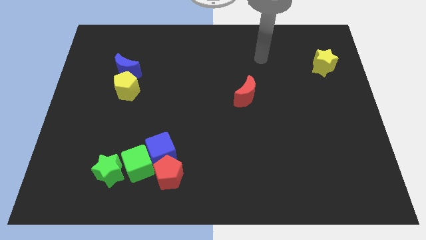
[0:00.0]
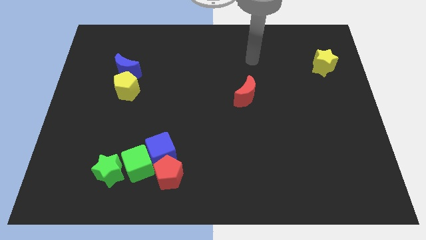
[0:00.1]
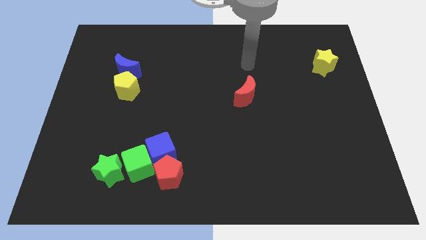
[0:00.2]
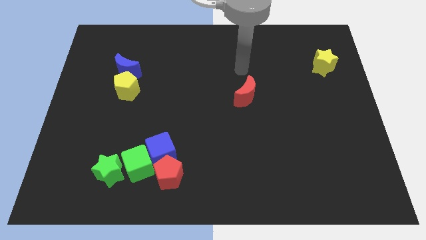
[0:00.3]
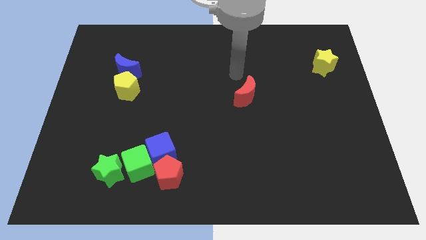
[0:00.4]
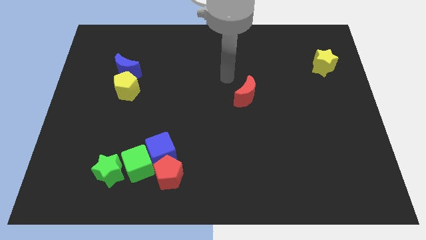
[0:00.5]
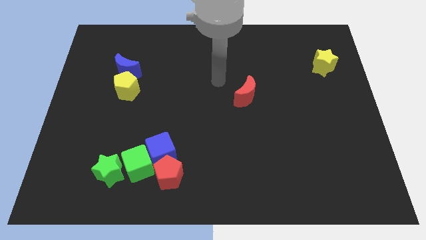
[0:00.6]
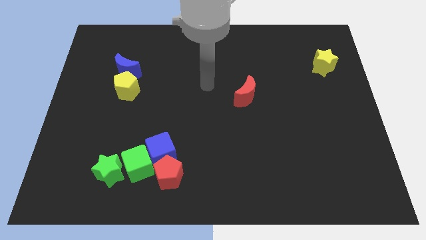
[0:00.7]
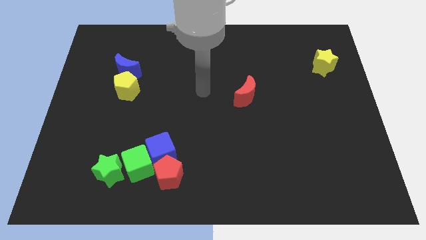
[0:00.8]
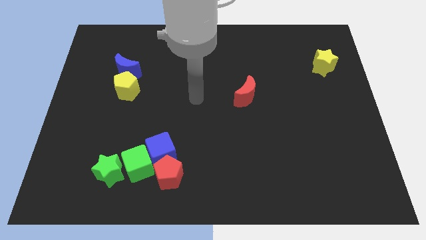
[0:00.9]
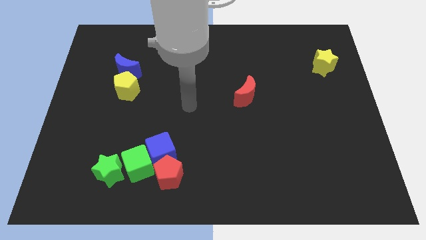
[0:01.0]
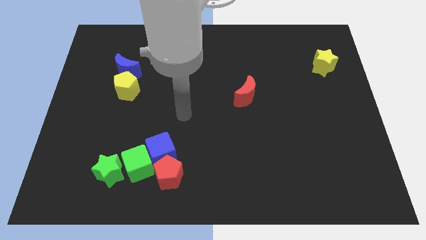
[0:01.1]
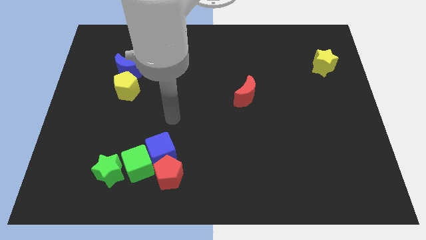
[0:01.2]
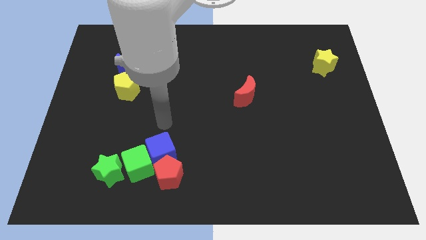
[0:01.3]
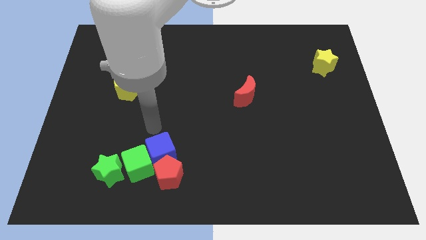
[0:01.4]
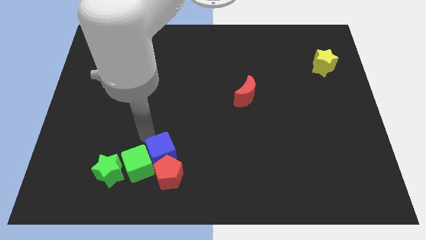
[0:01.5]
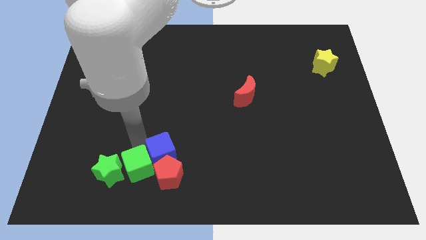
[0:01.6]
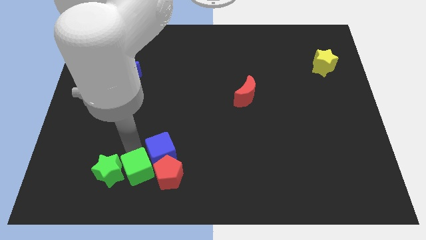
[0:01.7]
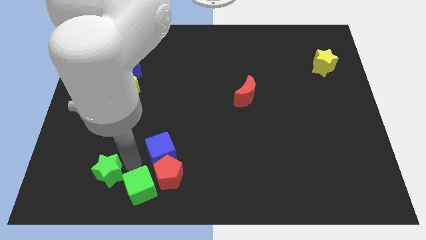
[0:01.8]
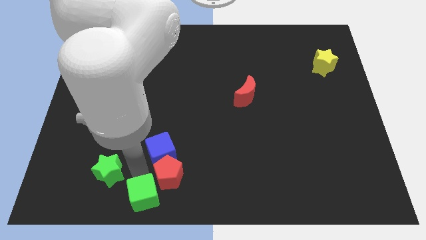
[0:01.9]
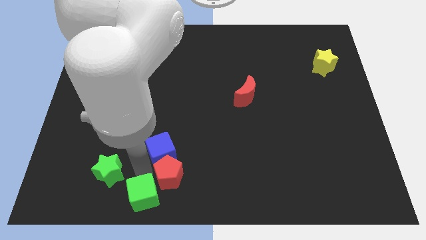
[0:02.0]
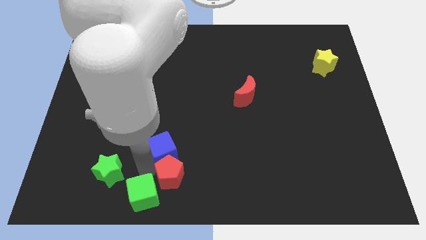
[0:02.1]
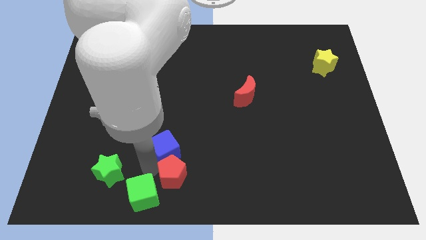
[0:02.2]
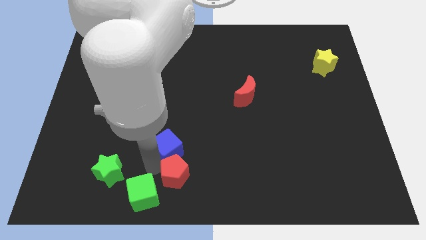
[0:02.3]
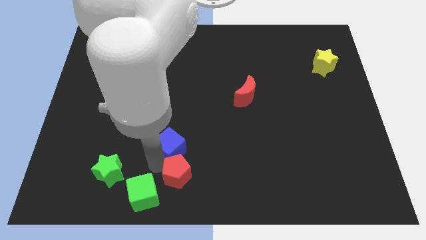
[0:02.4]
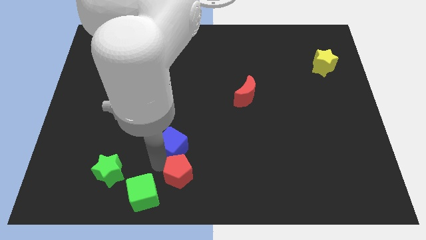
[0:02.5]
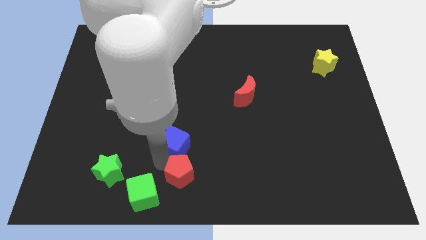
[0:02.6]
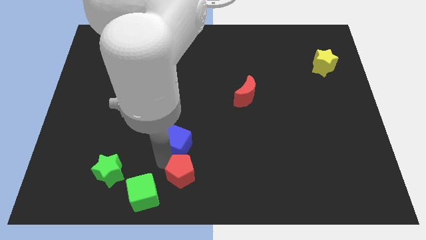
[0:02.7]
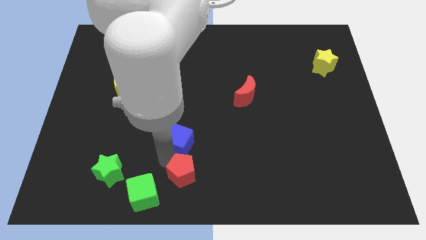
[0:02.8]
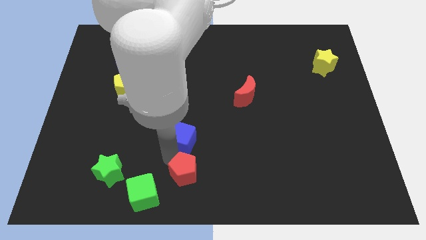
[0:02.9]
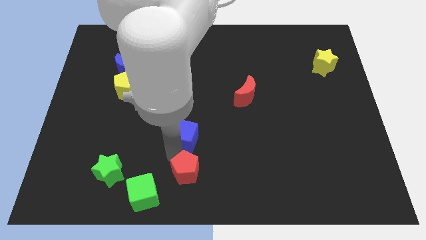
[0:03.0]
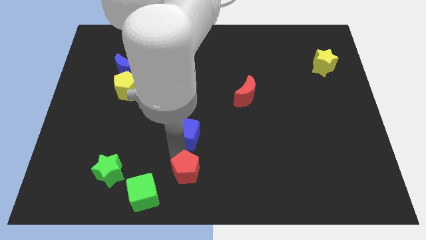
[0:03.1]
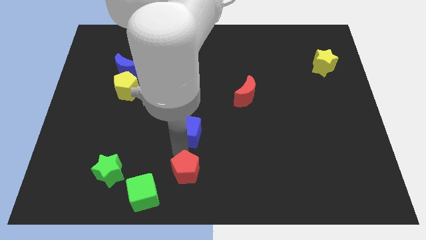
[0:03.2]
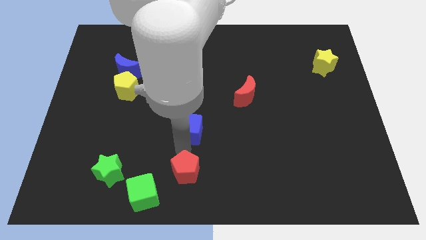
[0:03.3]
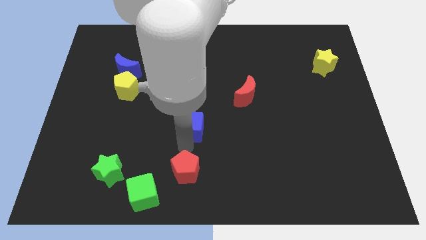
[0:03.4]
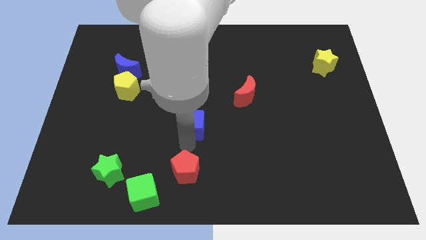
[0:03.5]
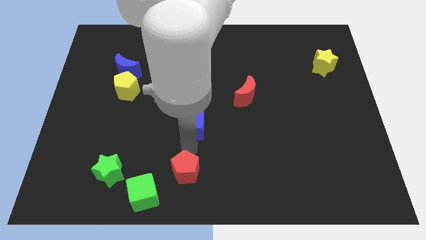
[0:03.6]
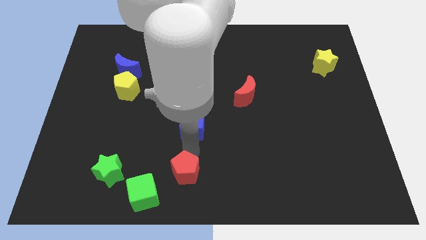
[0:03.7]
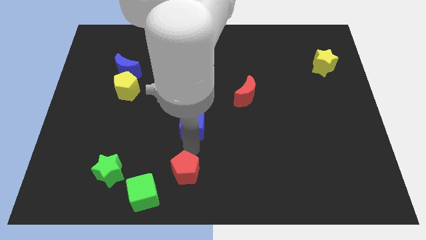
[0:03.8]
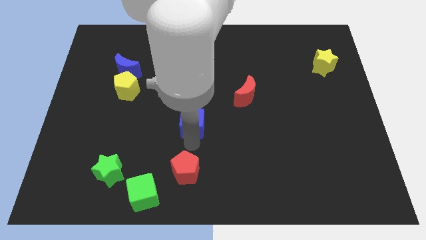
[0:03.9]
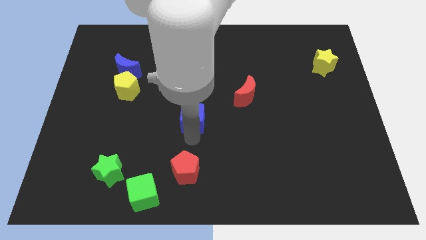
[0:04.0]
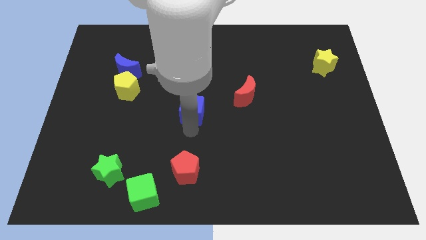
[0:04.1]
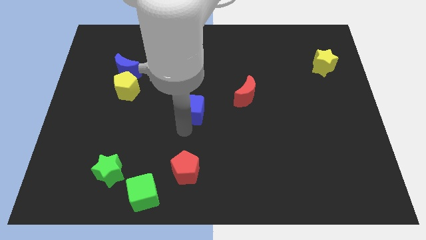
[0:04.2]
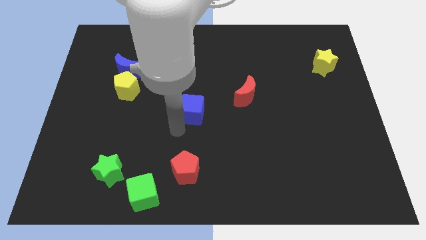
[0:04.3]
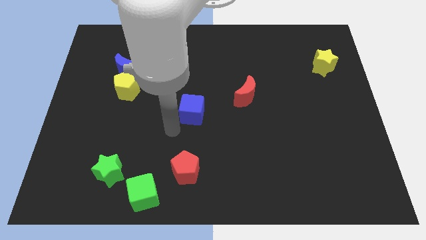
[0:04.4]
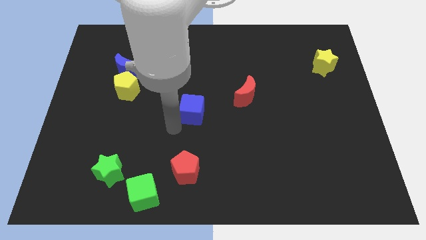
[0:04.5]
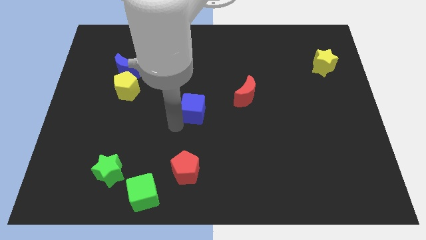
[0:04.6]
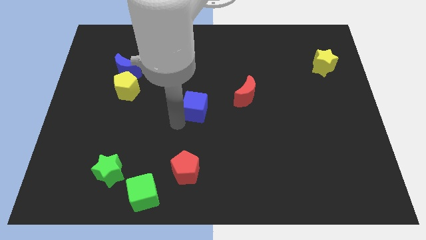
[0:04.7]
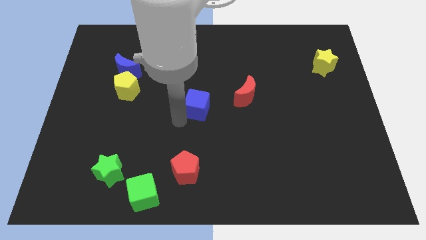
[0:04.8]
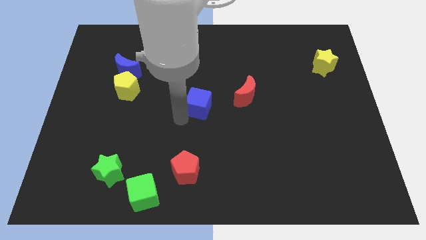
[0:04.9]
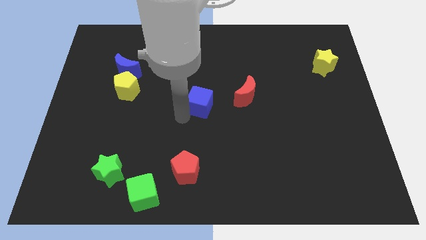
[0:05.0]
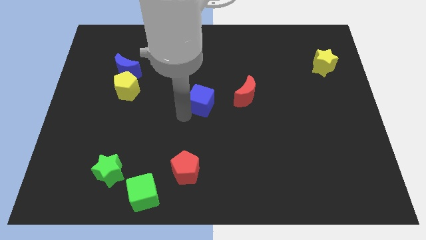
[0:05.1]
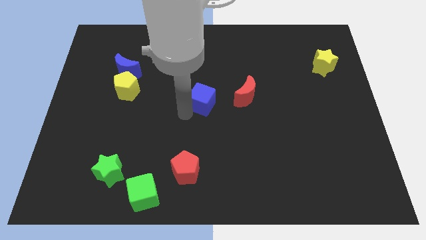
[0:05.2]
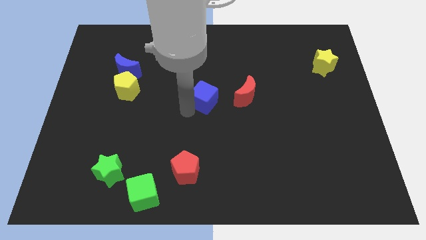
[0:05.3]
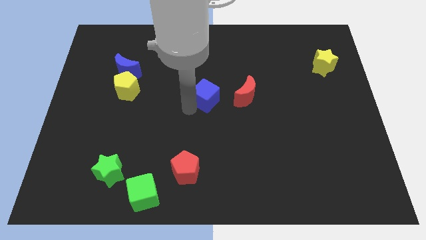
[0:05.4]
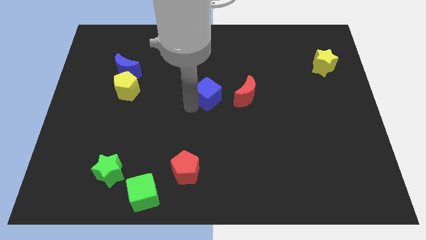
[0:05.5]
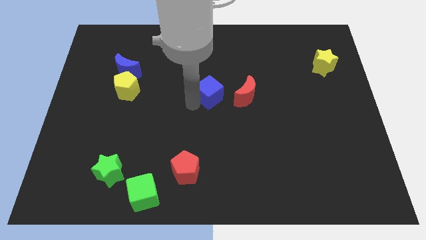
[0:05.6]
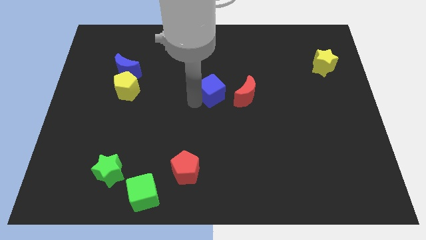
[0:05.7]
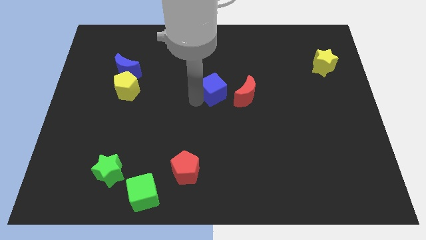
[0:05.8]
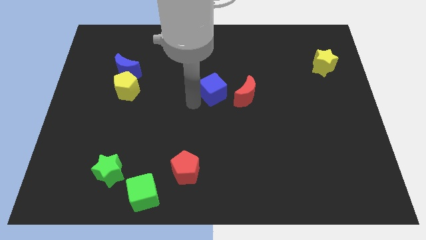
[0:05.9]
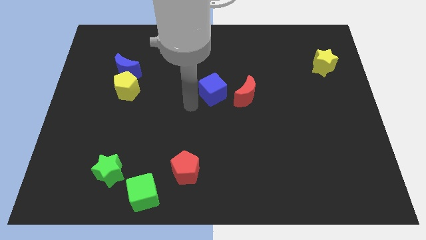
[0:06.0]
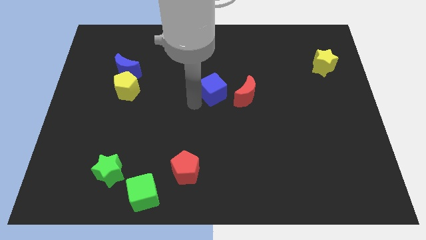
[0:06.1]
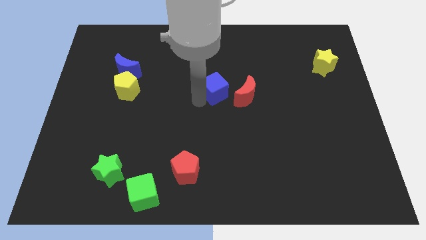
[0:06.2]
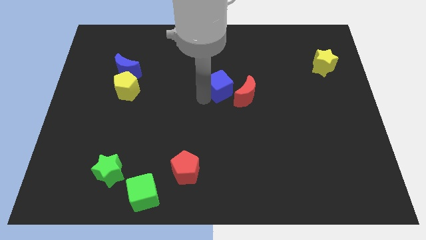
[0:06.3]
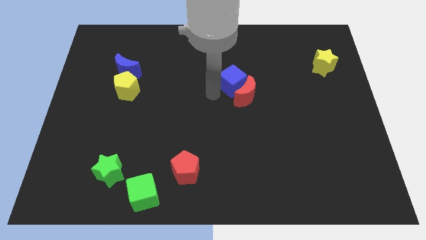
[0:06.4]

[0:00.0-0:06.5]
move the blue cube to the top side of the red moon

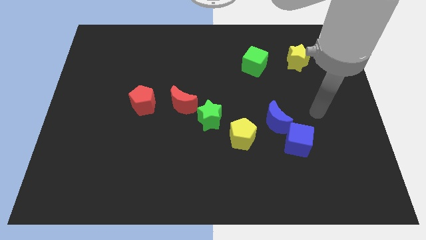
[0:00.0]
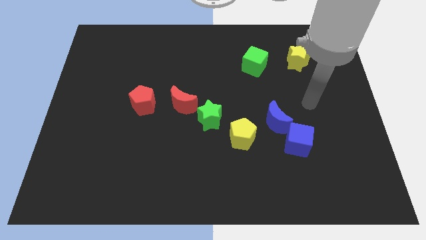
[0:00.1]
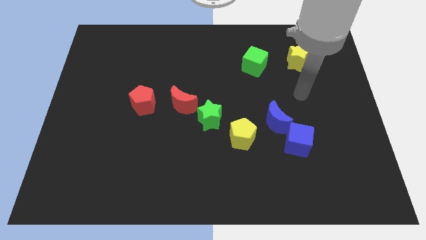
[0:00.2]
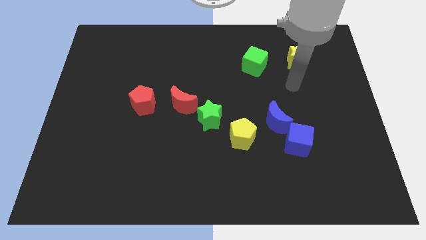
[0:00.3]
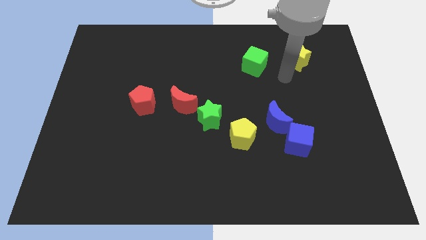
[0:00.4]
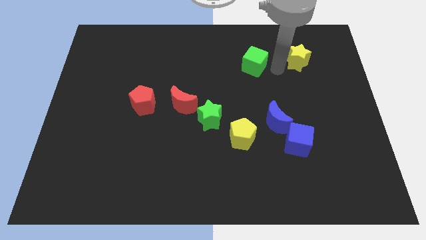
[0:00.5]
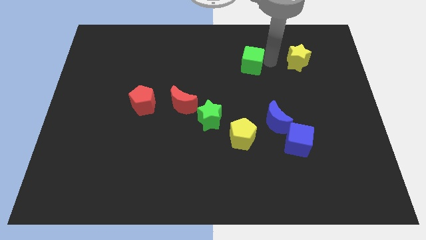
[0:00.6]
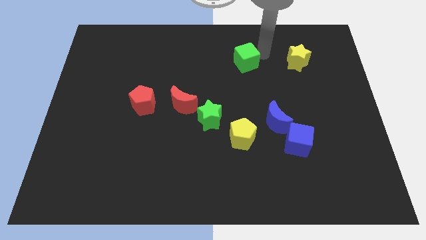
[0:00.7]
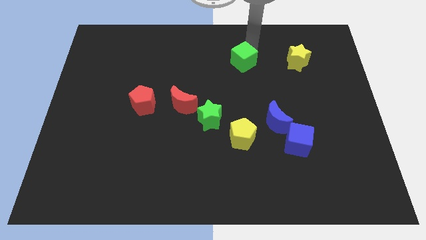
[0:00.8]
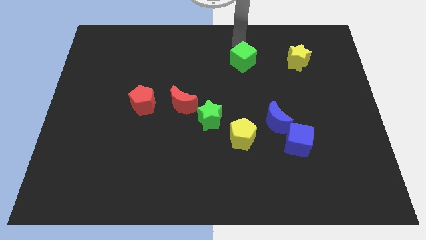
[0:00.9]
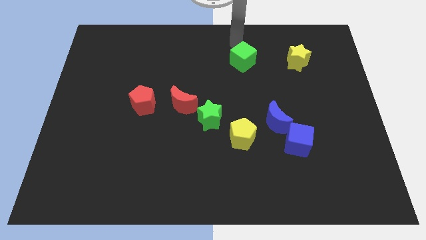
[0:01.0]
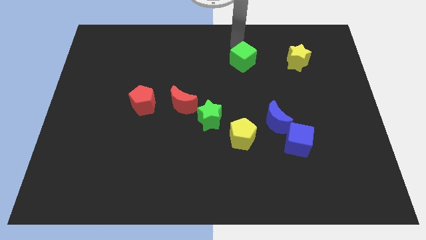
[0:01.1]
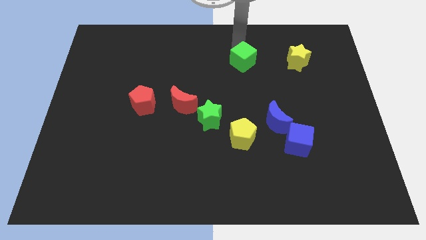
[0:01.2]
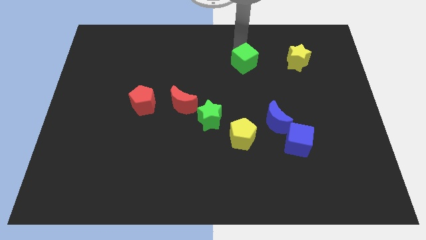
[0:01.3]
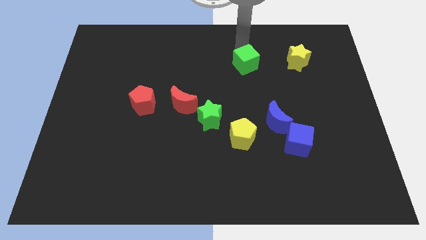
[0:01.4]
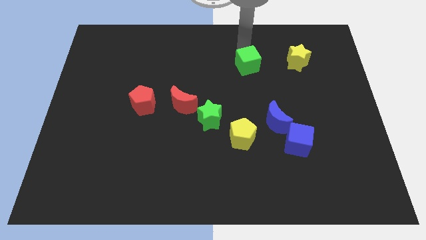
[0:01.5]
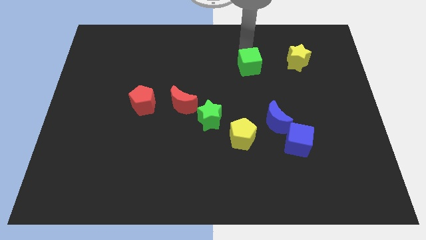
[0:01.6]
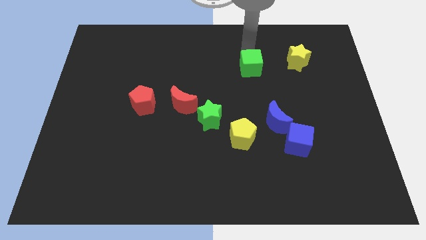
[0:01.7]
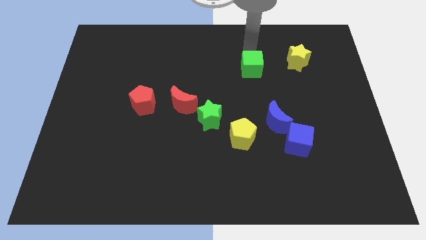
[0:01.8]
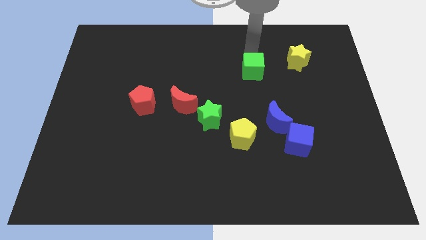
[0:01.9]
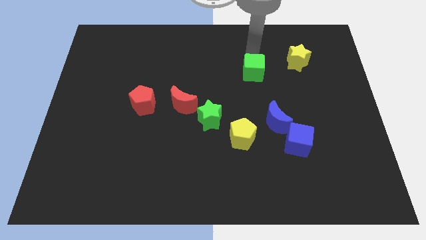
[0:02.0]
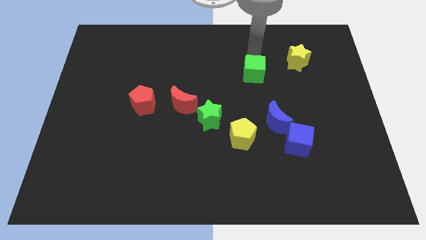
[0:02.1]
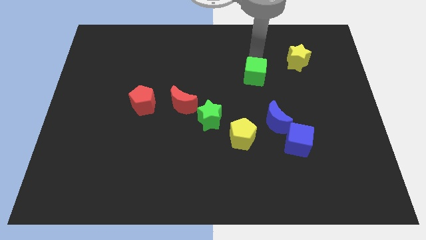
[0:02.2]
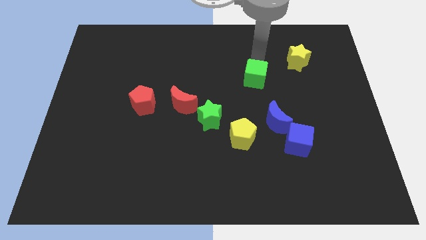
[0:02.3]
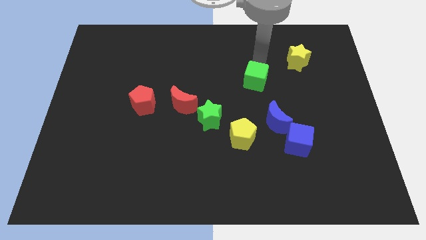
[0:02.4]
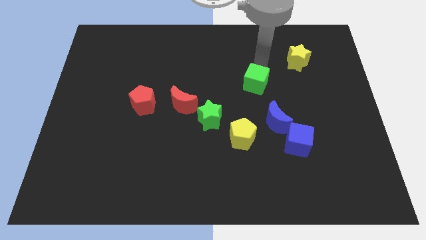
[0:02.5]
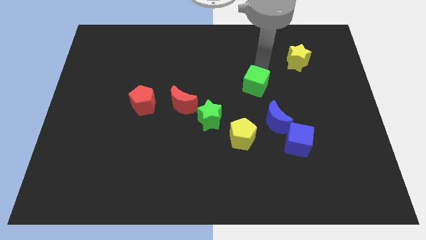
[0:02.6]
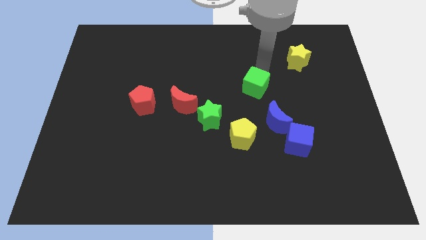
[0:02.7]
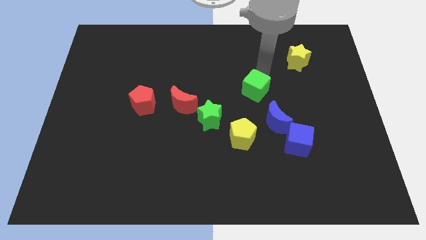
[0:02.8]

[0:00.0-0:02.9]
put the green cube to the top side of the yellow pentagon
